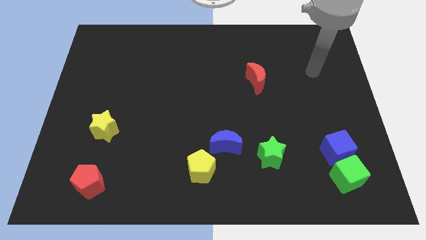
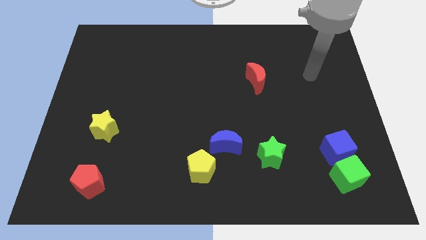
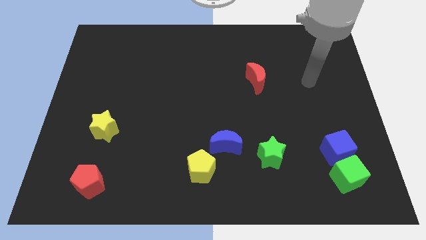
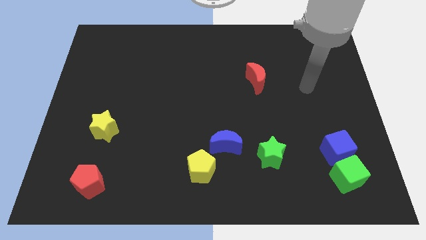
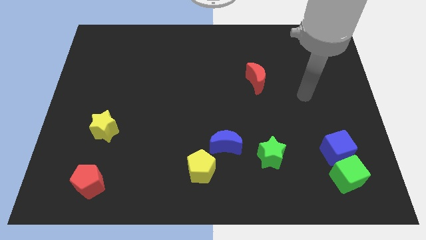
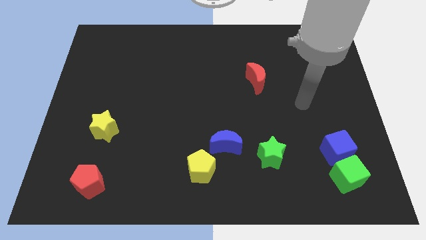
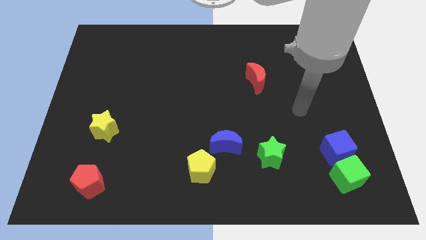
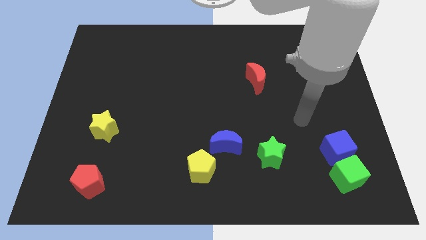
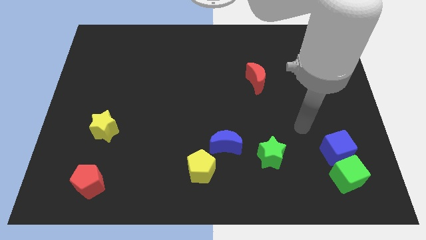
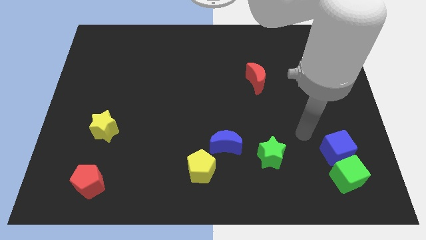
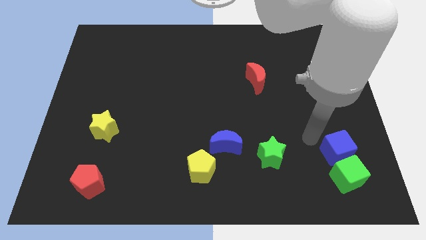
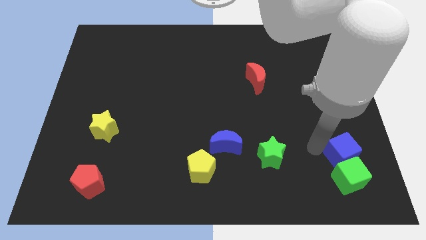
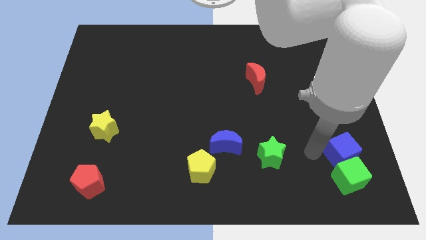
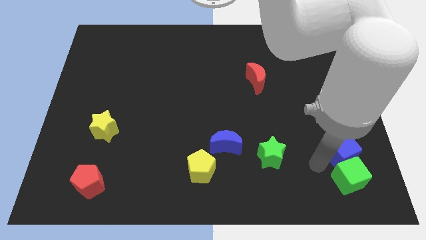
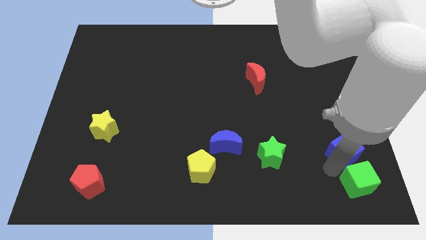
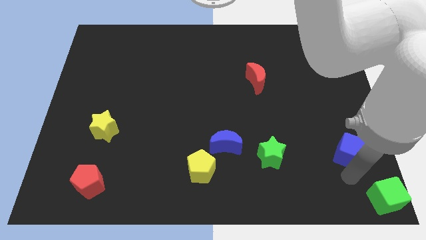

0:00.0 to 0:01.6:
separate the blue cube from the green cube

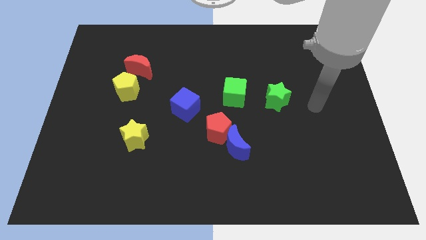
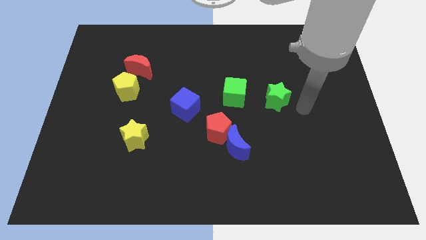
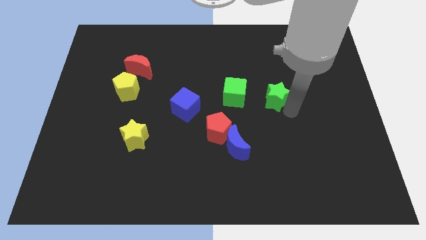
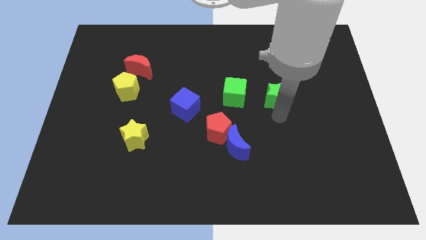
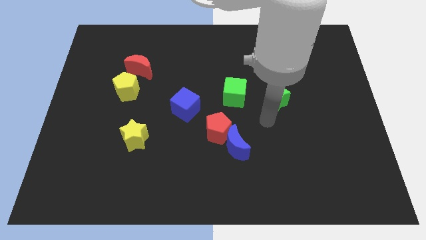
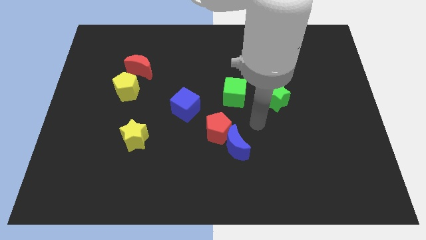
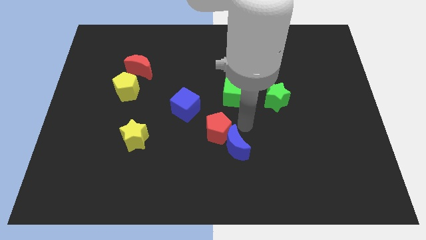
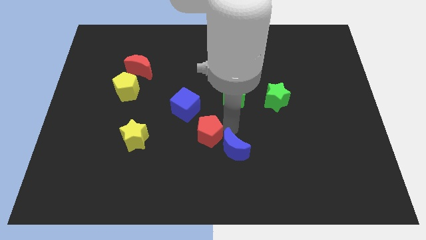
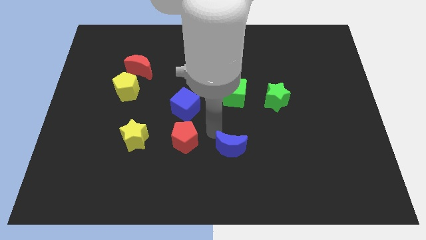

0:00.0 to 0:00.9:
separate the blue moon from the red pentagon

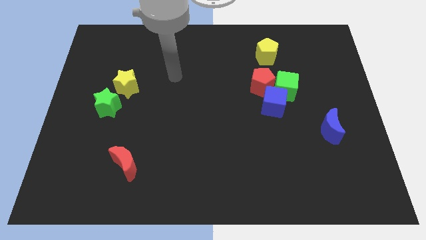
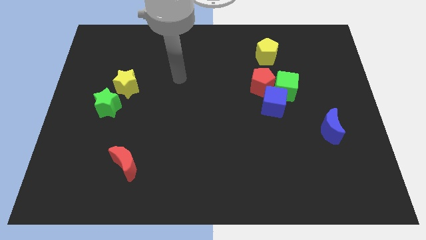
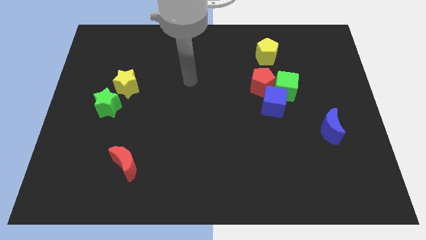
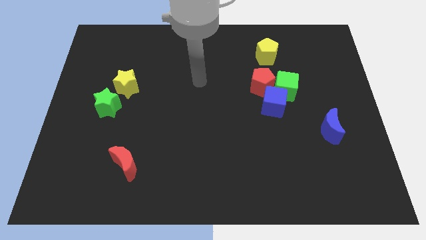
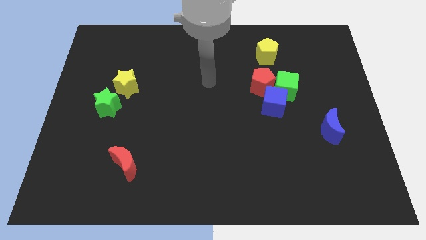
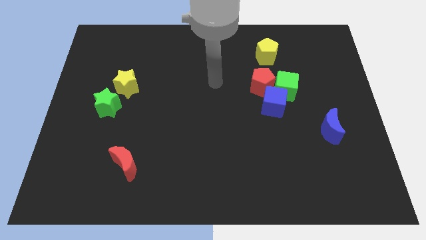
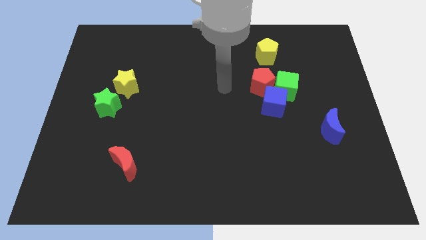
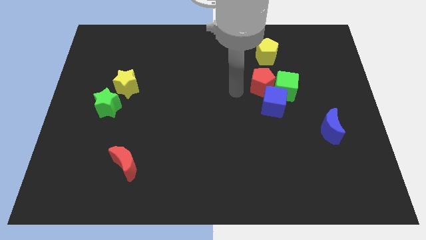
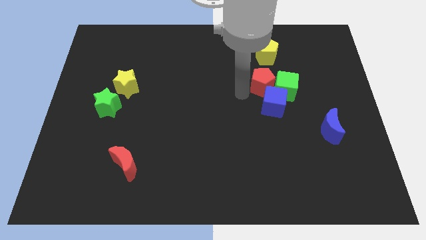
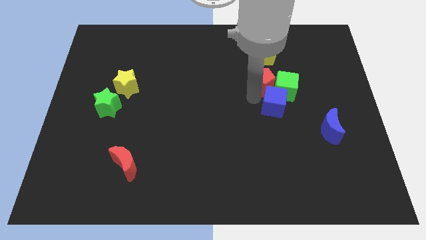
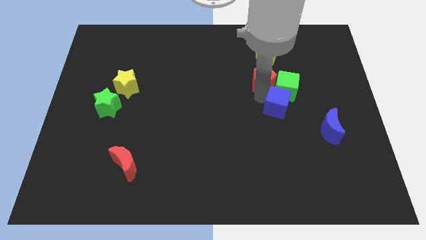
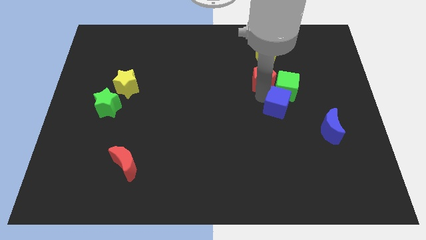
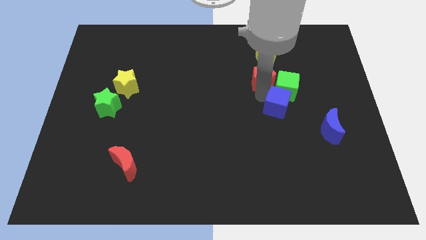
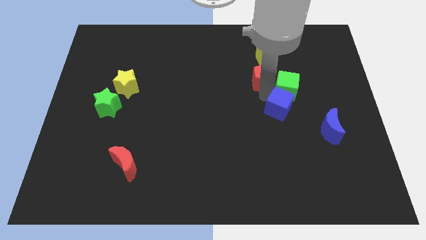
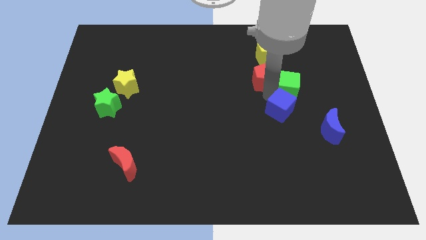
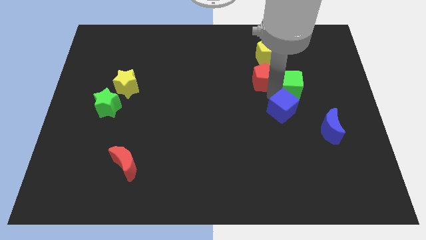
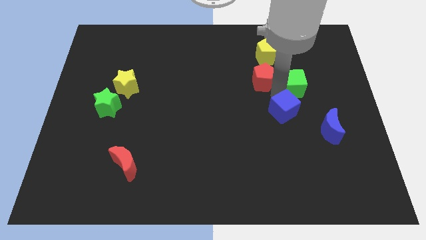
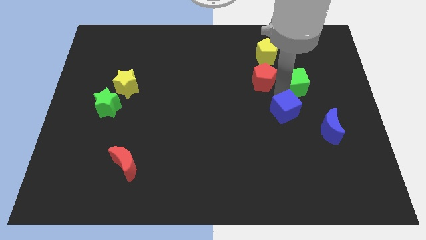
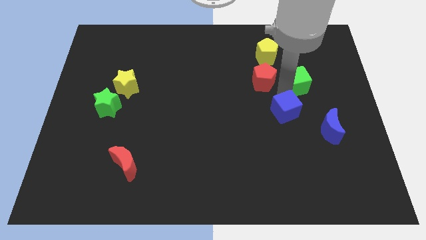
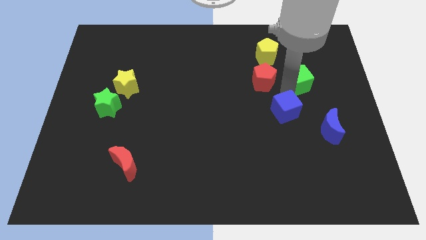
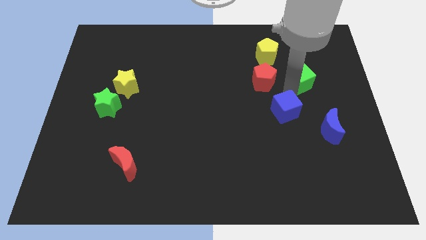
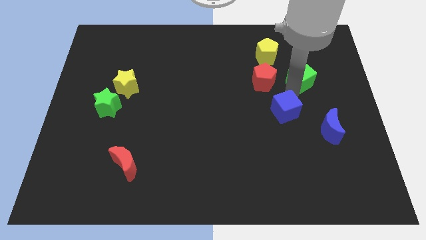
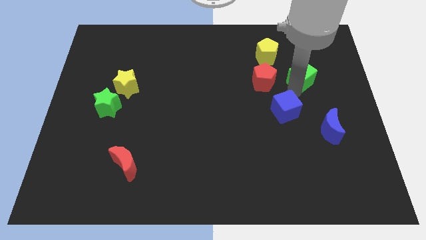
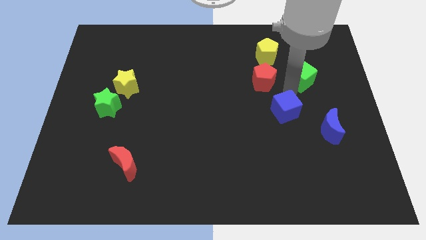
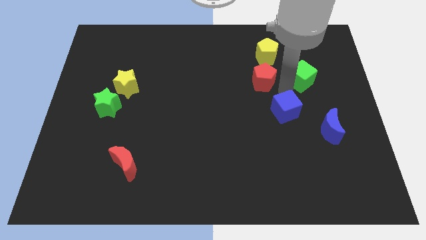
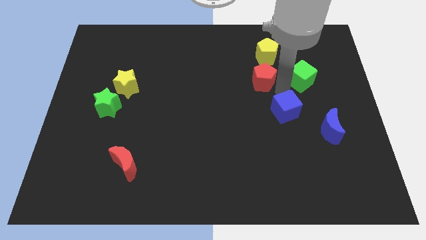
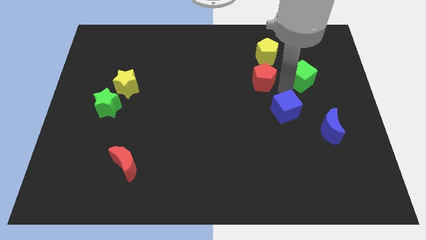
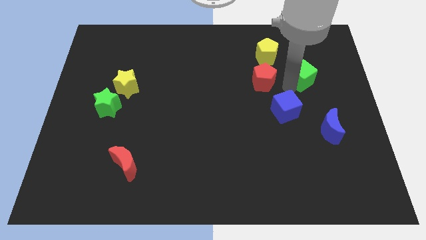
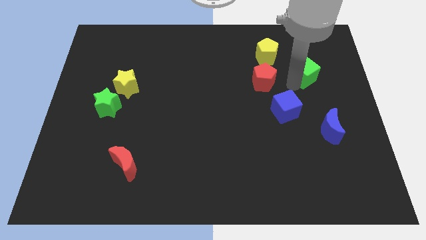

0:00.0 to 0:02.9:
separate the green cube from the blue cube and red pentagon

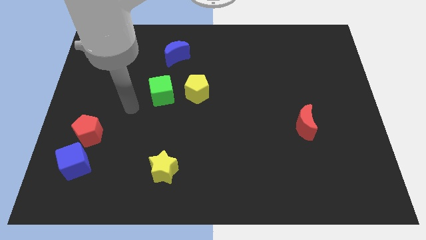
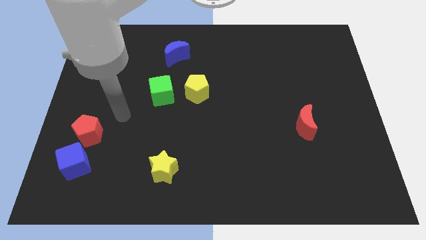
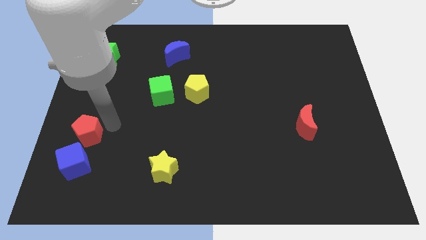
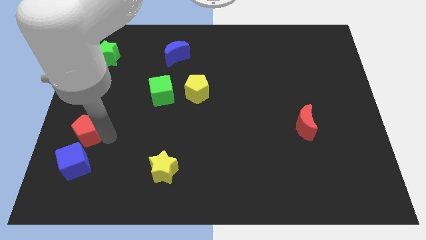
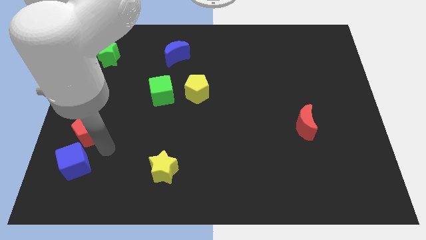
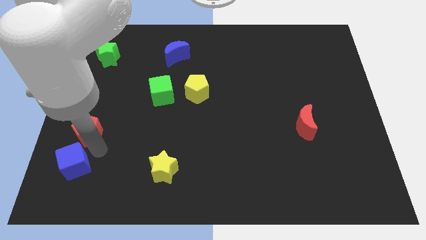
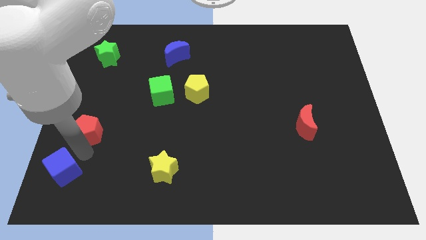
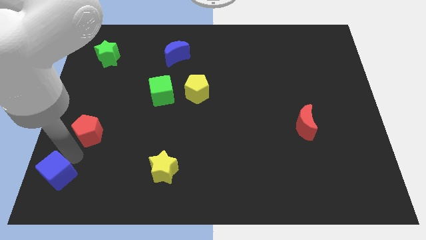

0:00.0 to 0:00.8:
separate the red pentagon from the blue cube

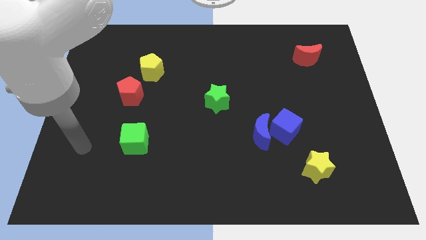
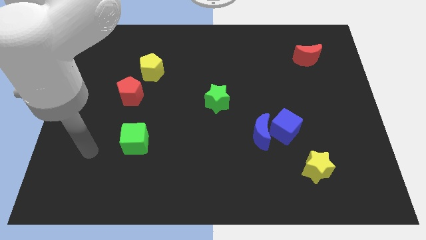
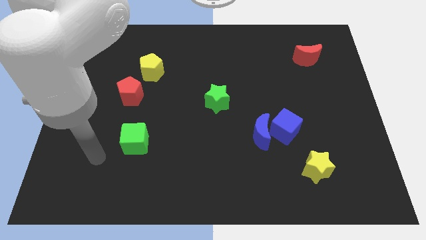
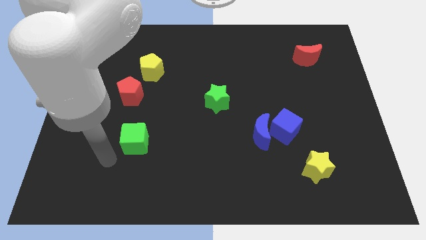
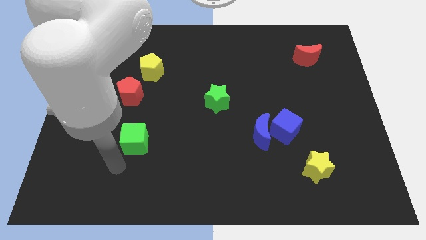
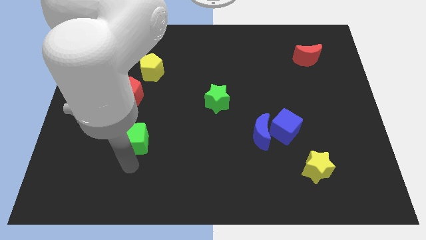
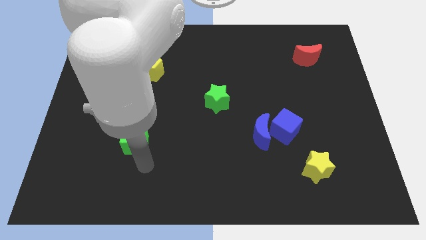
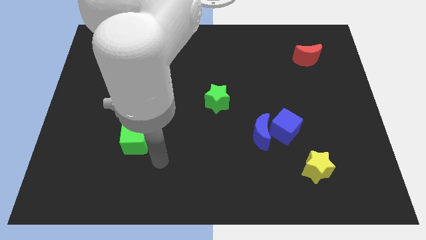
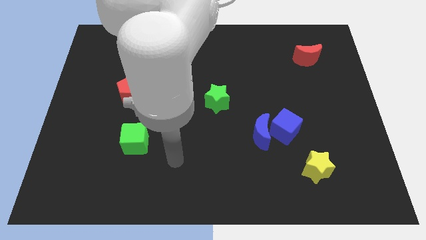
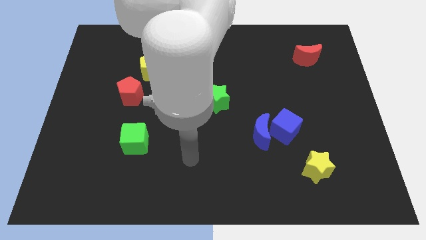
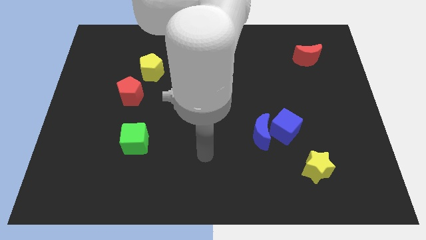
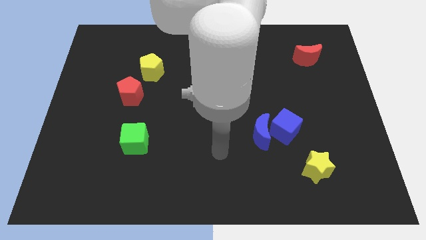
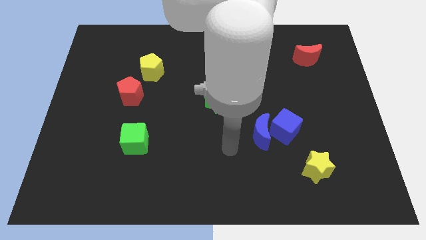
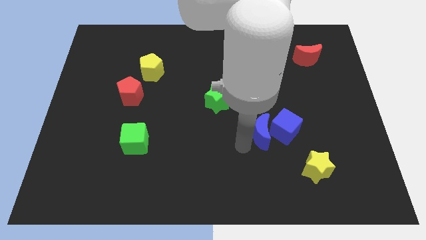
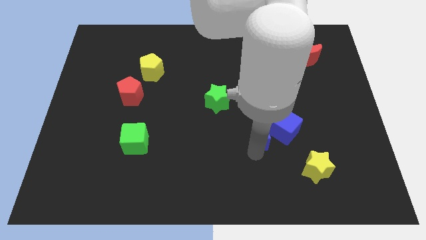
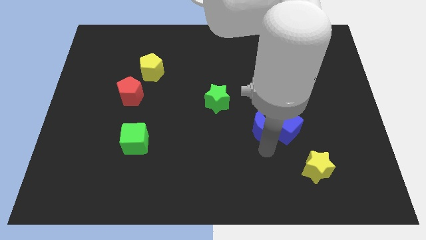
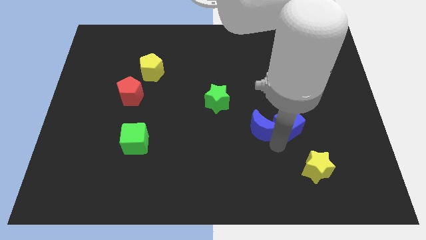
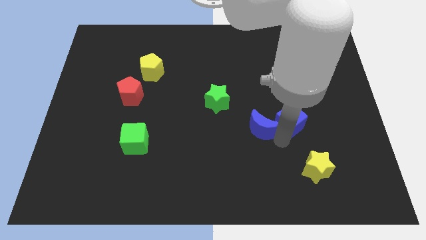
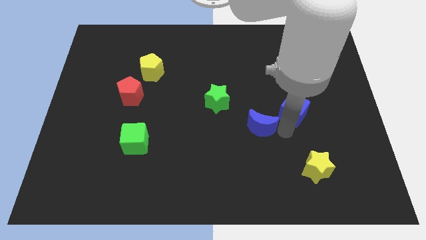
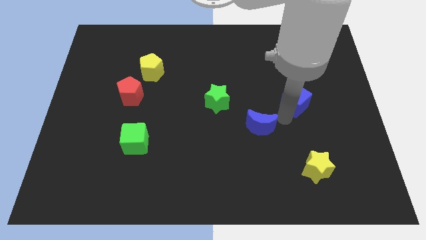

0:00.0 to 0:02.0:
pull the blue moon apart from the blue cube

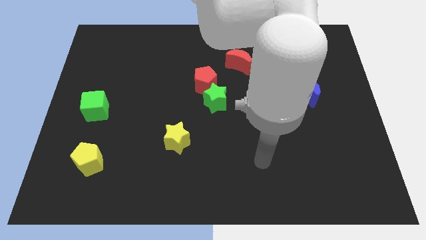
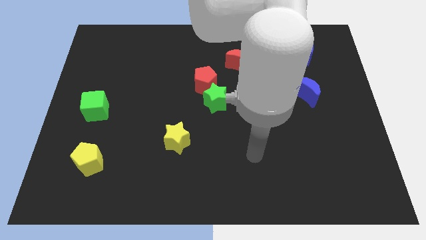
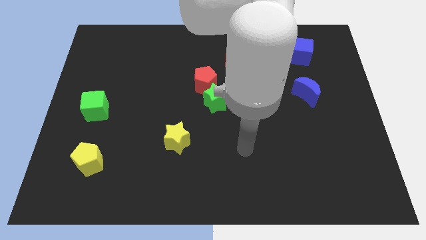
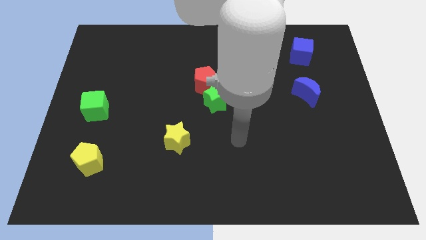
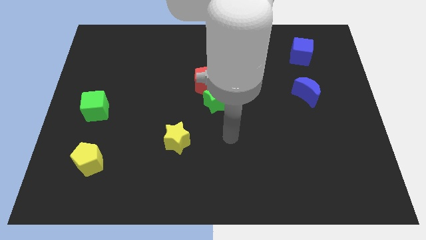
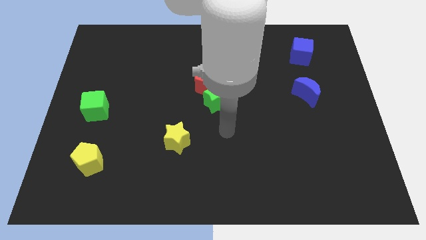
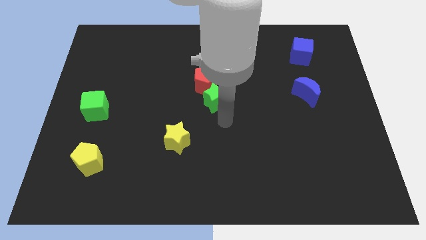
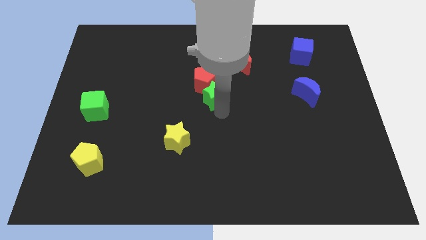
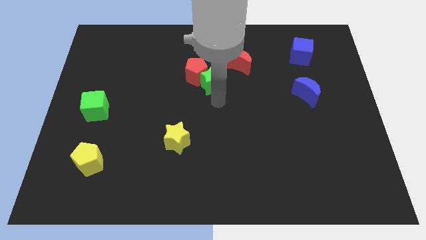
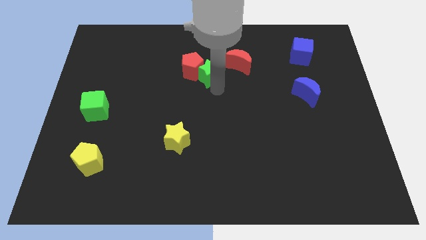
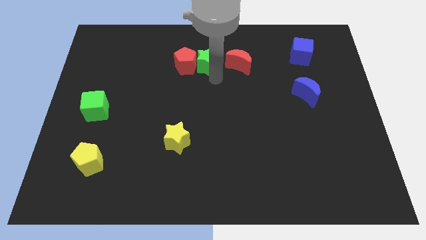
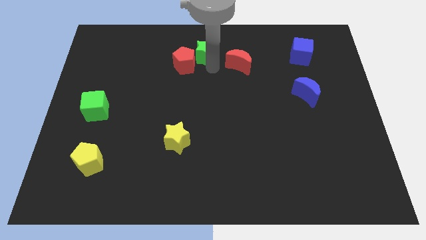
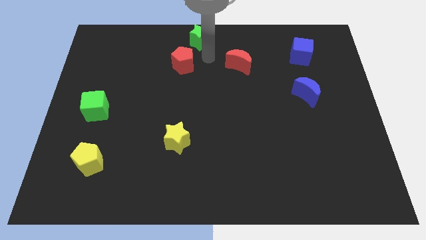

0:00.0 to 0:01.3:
move the red pentagon away from the green star
